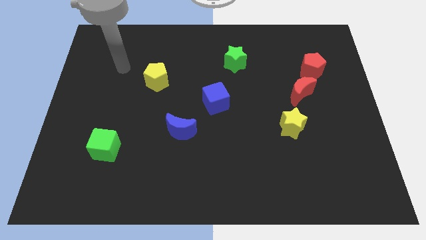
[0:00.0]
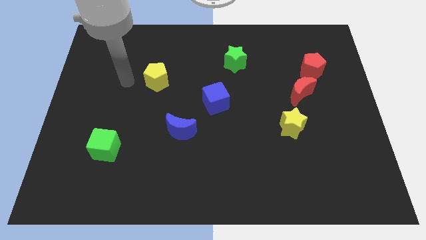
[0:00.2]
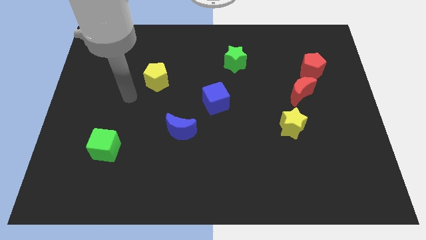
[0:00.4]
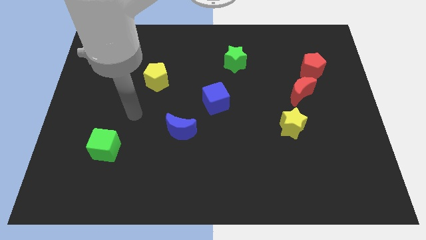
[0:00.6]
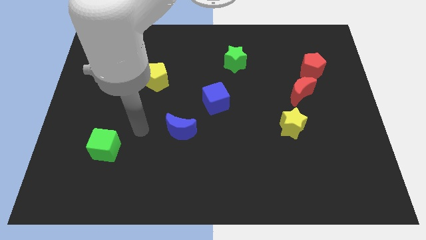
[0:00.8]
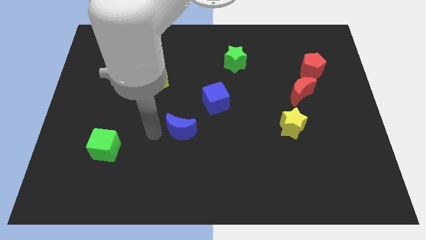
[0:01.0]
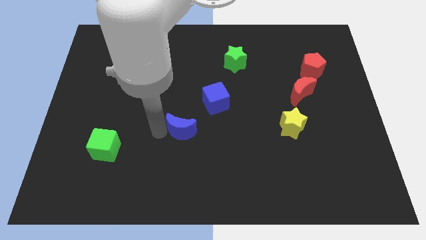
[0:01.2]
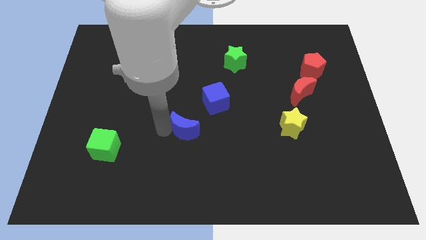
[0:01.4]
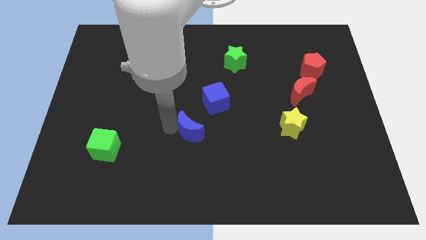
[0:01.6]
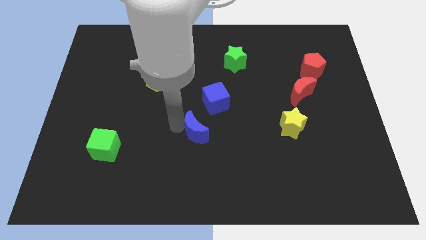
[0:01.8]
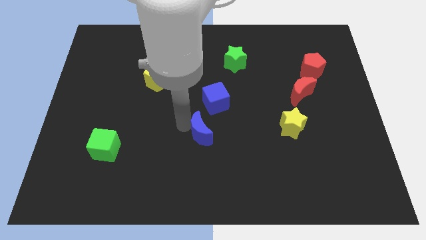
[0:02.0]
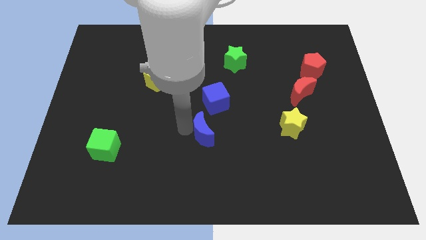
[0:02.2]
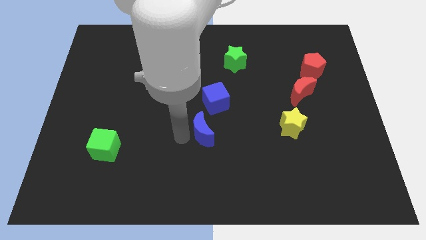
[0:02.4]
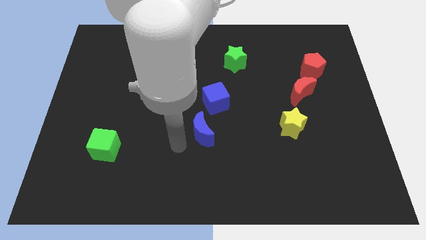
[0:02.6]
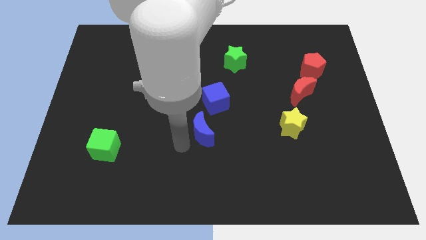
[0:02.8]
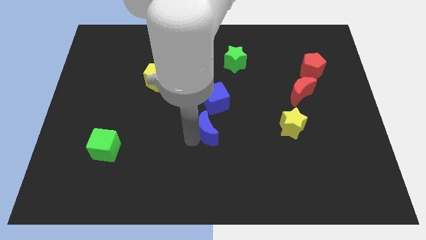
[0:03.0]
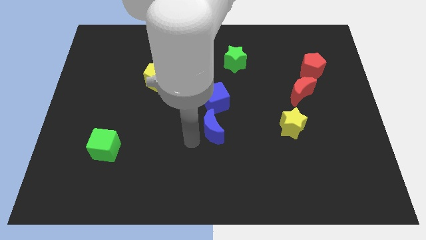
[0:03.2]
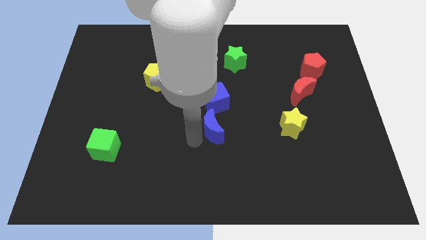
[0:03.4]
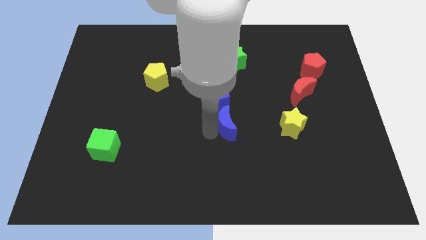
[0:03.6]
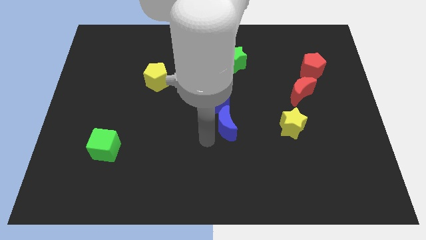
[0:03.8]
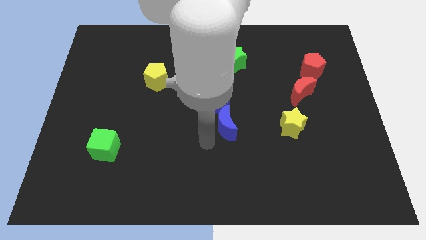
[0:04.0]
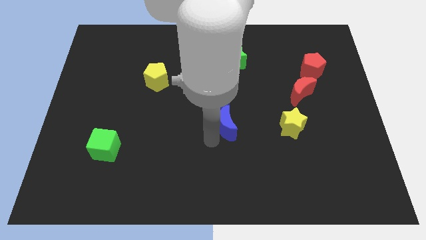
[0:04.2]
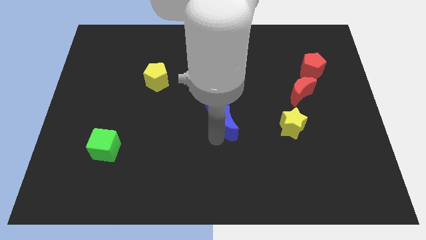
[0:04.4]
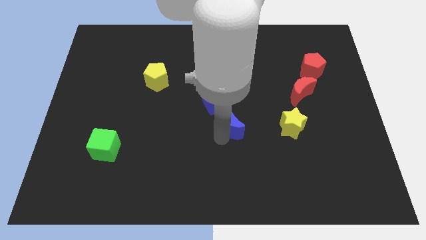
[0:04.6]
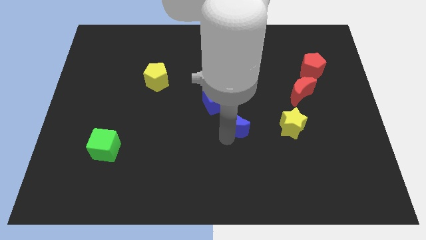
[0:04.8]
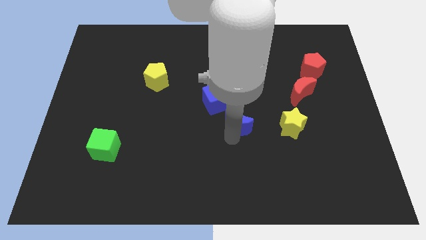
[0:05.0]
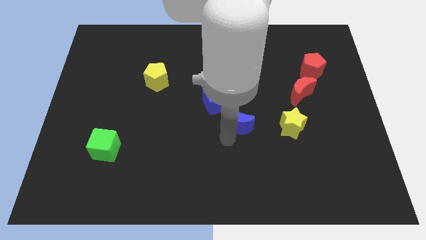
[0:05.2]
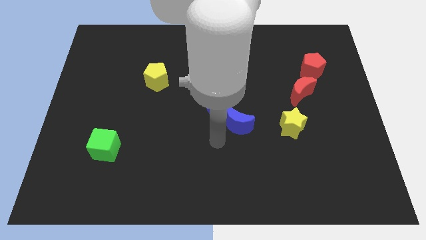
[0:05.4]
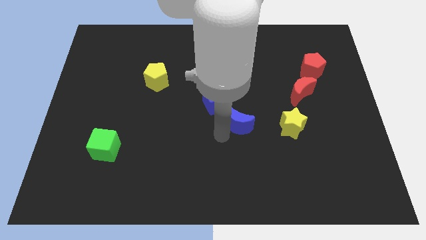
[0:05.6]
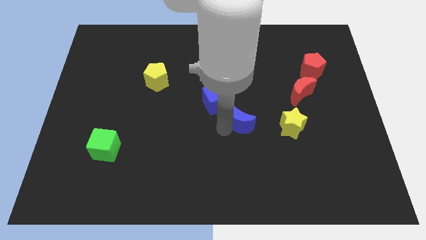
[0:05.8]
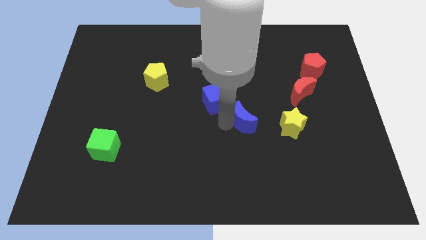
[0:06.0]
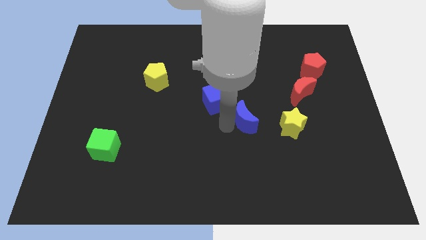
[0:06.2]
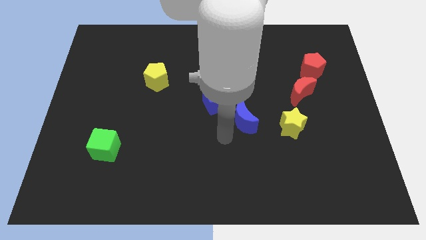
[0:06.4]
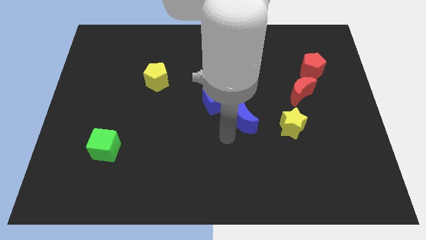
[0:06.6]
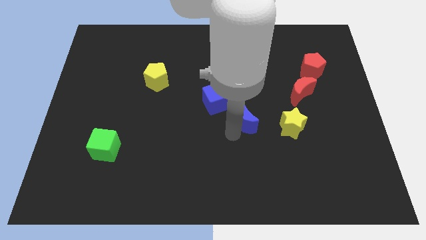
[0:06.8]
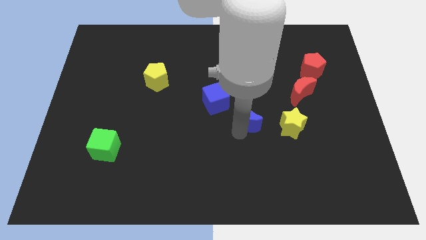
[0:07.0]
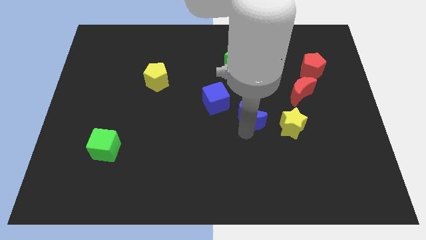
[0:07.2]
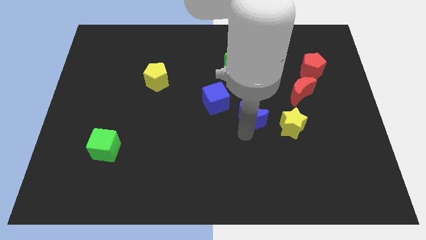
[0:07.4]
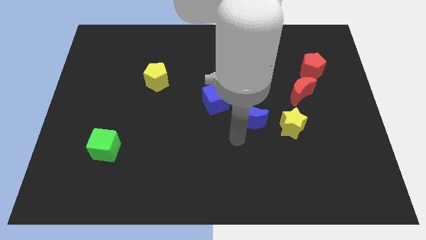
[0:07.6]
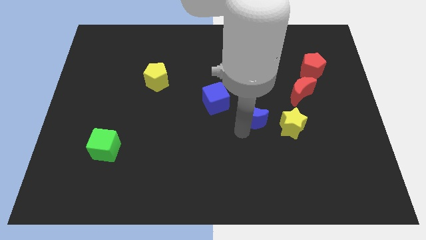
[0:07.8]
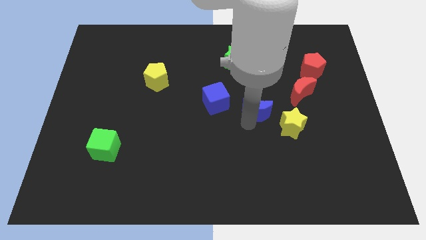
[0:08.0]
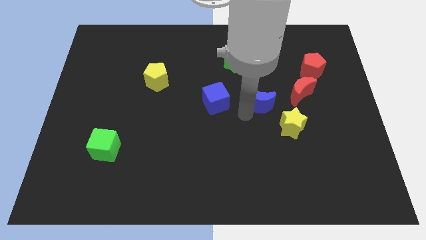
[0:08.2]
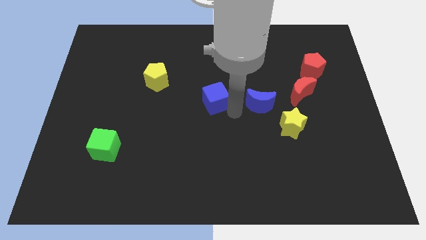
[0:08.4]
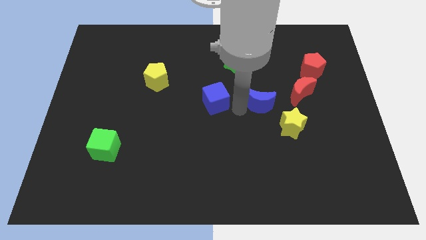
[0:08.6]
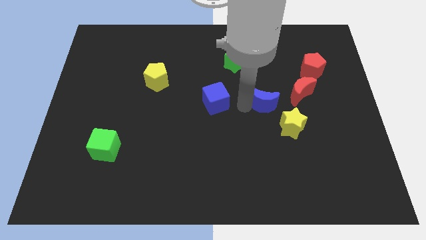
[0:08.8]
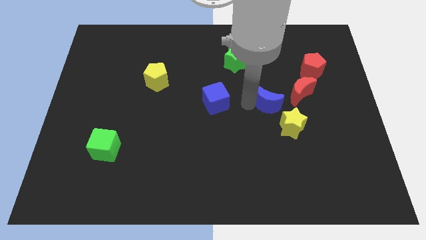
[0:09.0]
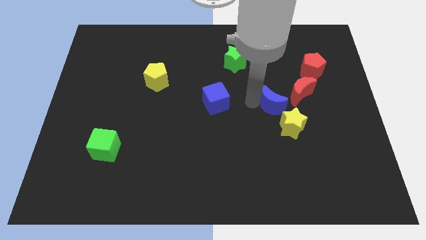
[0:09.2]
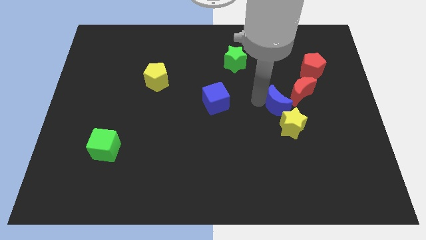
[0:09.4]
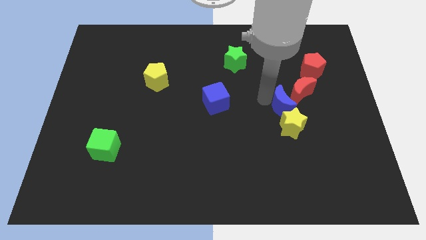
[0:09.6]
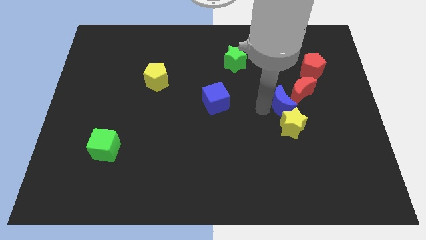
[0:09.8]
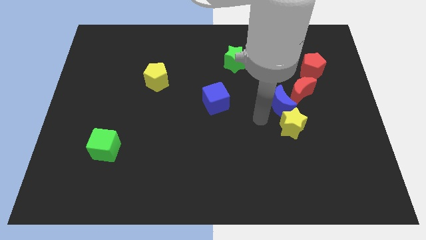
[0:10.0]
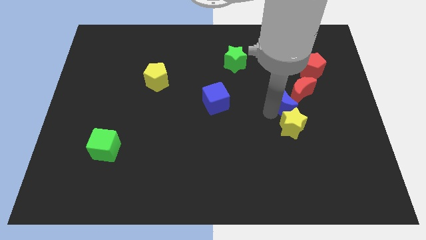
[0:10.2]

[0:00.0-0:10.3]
move the blue moon towards the red moon

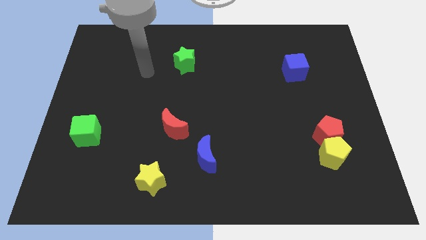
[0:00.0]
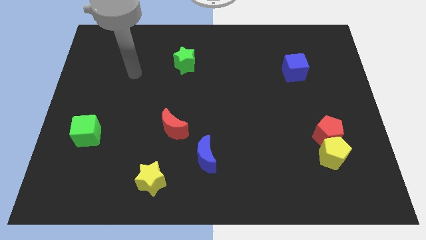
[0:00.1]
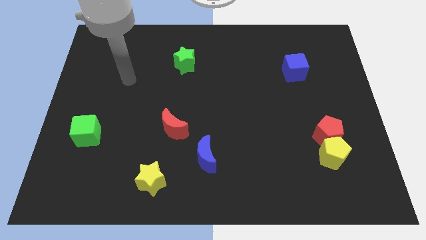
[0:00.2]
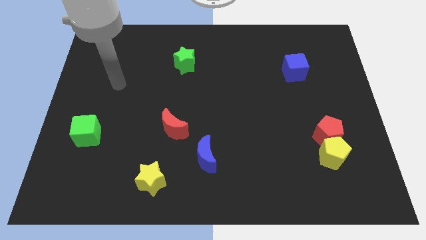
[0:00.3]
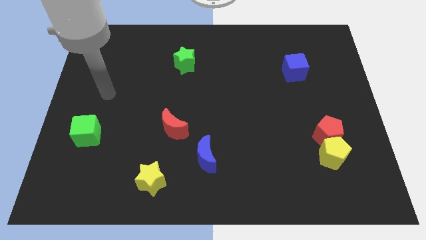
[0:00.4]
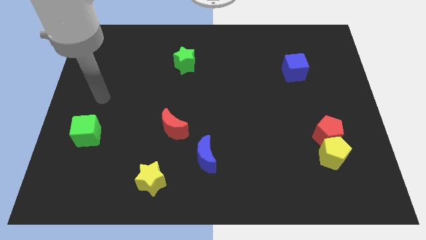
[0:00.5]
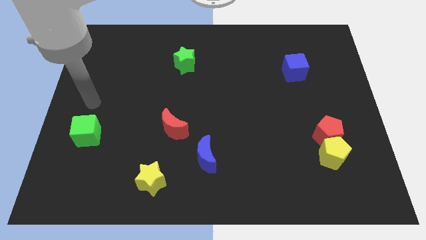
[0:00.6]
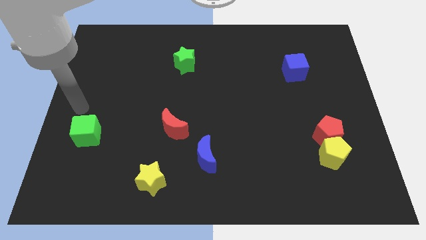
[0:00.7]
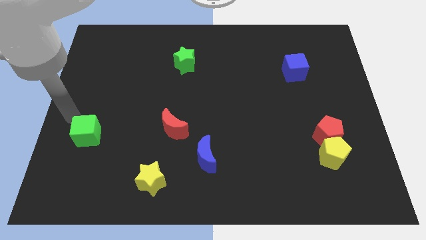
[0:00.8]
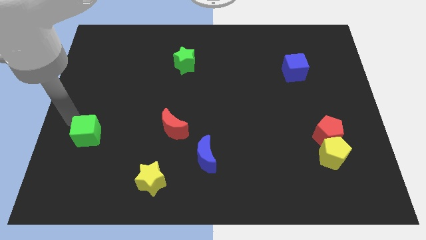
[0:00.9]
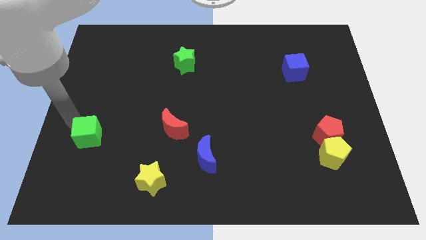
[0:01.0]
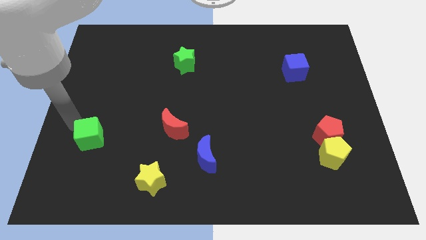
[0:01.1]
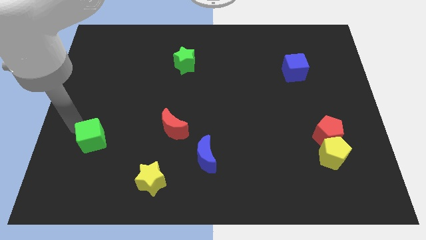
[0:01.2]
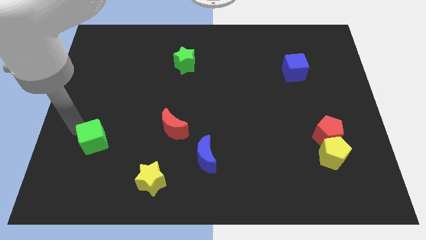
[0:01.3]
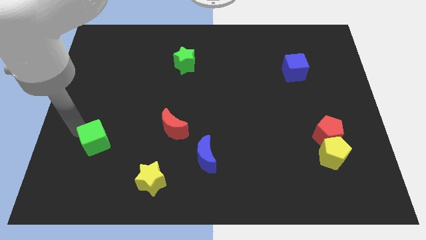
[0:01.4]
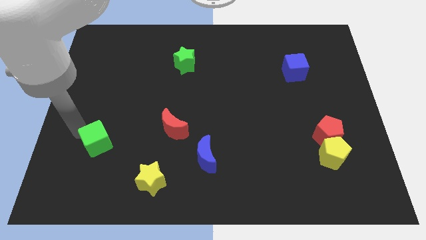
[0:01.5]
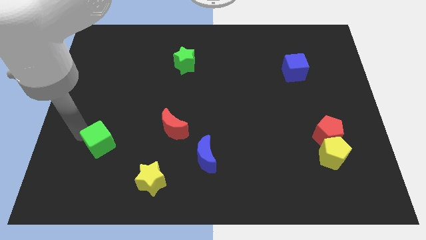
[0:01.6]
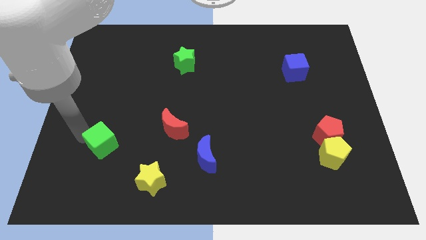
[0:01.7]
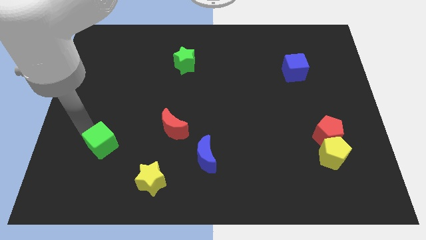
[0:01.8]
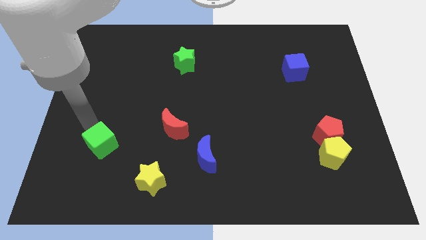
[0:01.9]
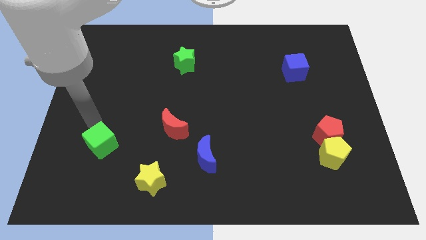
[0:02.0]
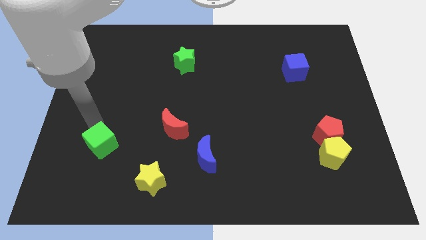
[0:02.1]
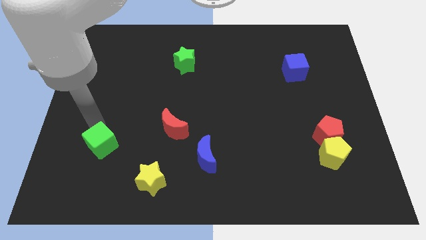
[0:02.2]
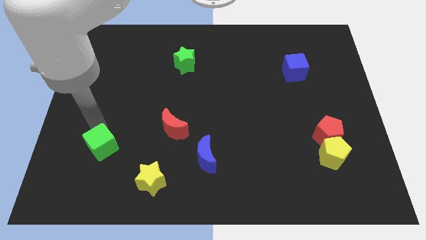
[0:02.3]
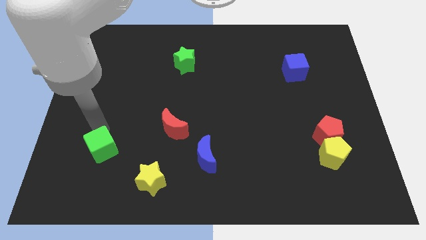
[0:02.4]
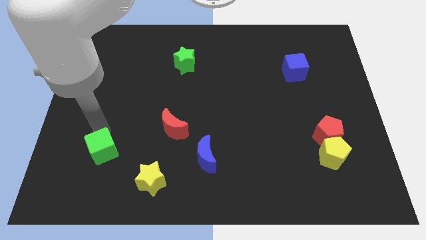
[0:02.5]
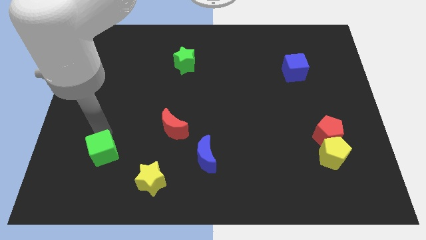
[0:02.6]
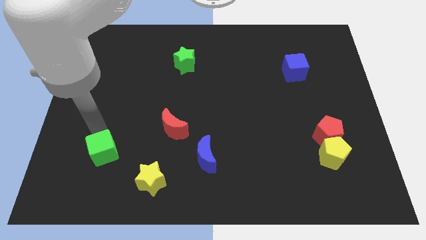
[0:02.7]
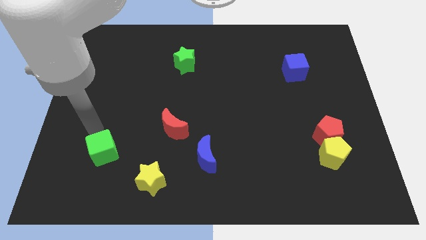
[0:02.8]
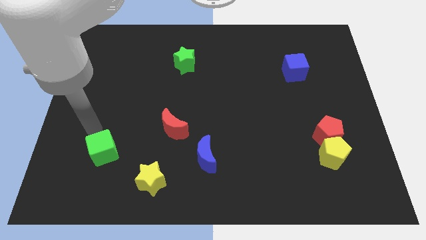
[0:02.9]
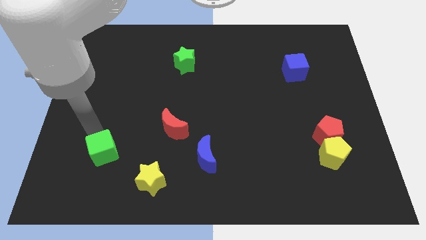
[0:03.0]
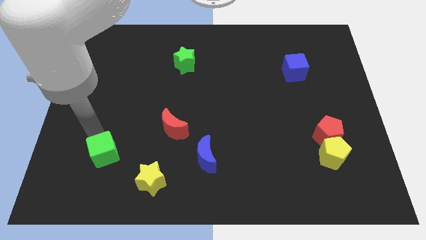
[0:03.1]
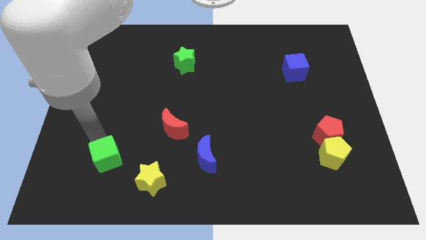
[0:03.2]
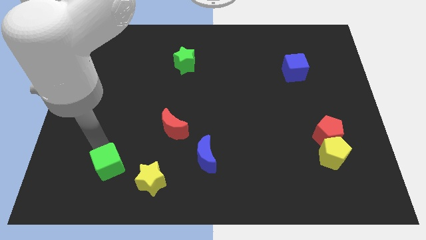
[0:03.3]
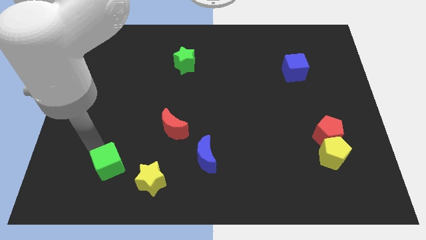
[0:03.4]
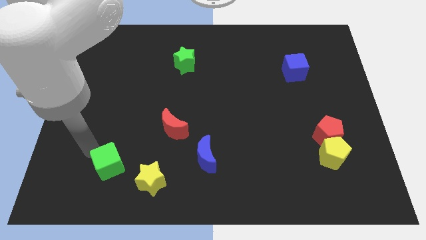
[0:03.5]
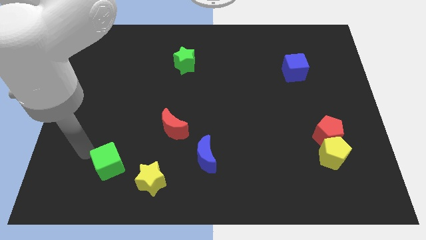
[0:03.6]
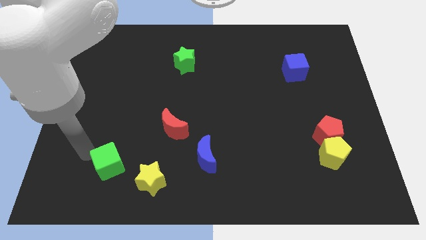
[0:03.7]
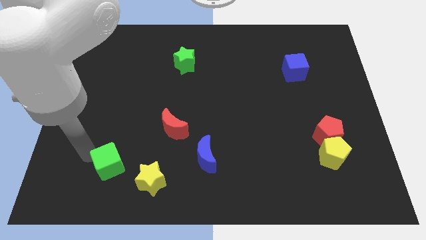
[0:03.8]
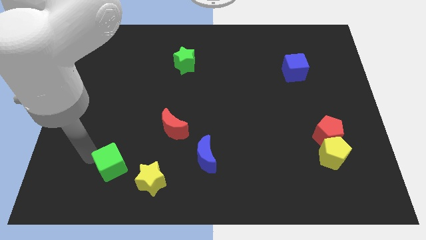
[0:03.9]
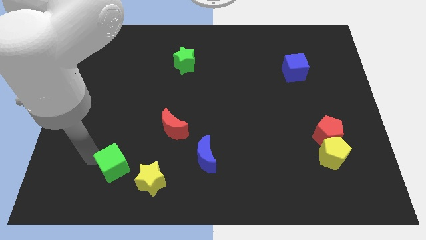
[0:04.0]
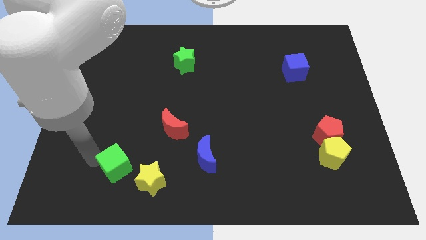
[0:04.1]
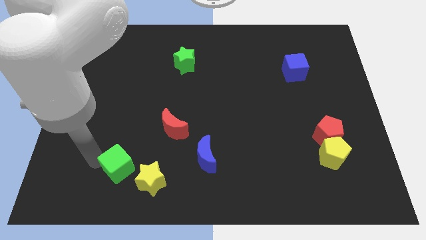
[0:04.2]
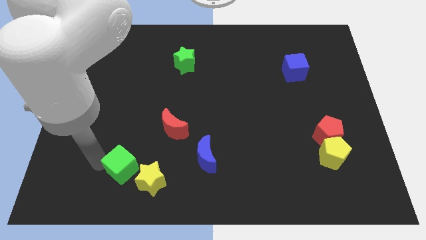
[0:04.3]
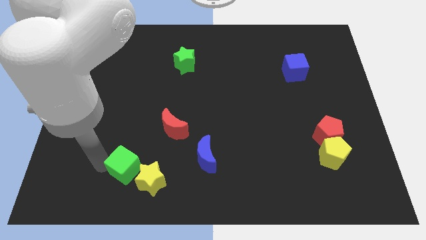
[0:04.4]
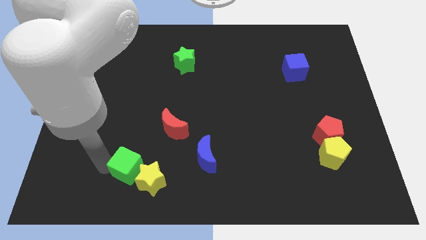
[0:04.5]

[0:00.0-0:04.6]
move the green cube close to the yellow star
